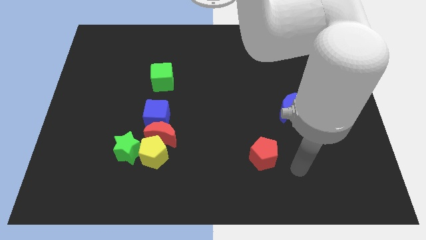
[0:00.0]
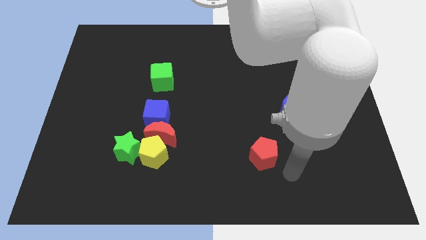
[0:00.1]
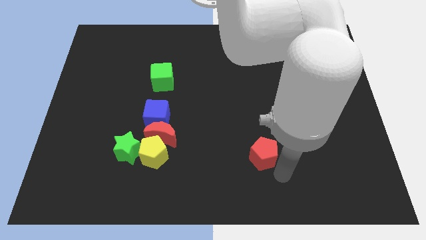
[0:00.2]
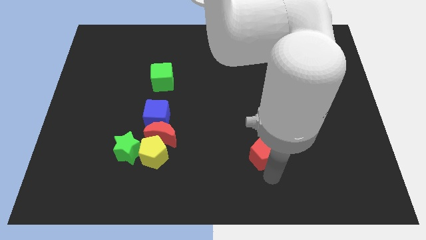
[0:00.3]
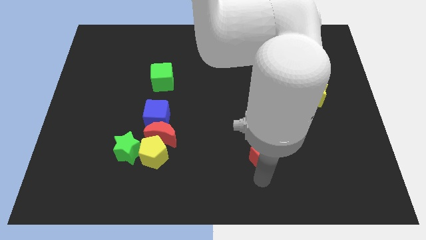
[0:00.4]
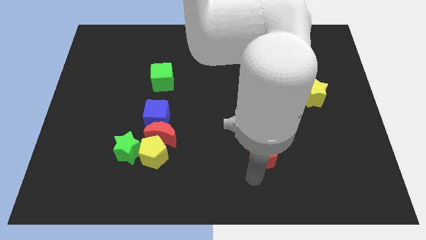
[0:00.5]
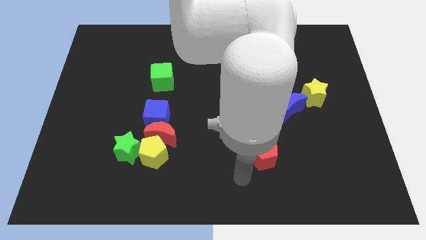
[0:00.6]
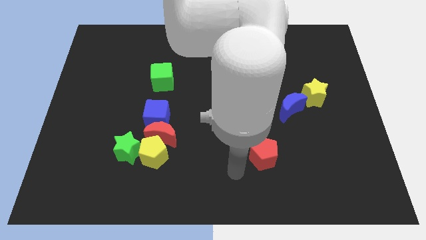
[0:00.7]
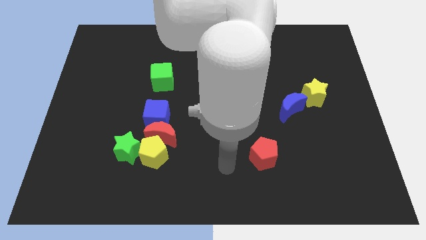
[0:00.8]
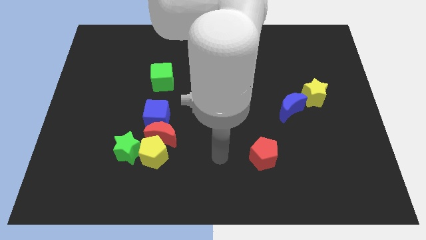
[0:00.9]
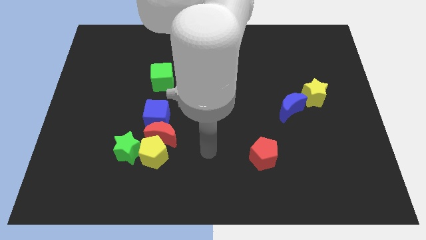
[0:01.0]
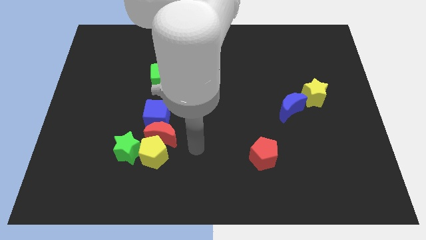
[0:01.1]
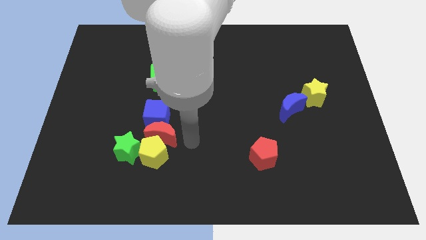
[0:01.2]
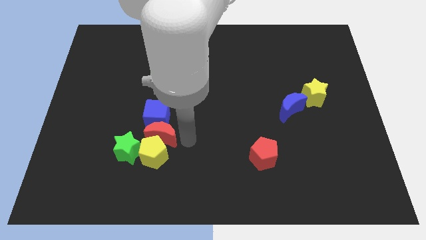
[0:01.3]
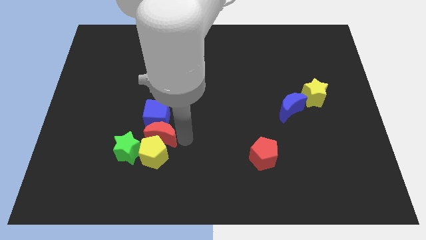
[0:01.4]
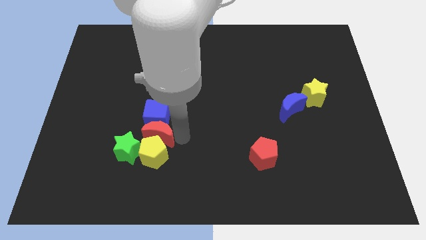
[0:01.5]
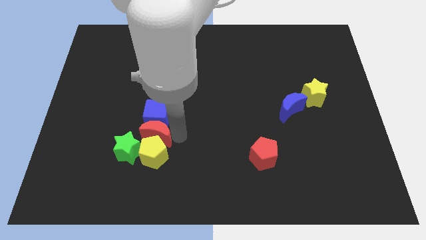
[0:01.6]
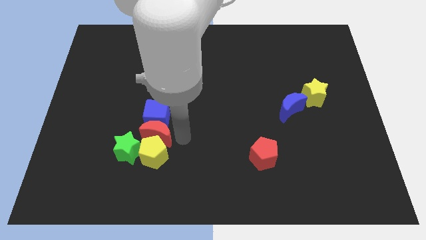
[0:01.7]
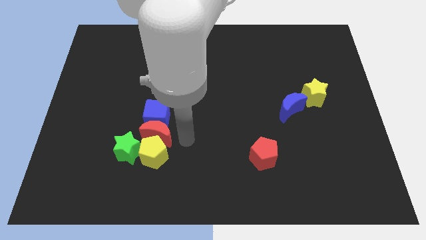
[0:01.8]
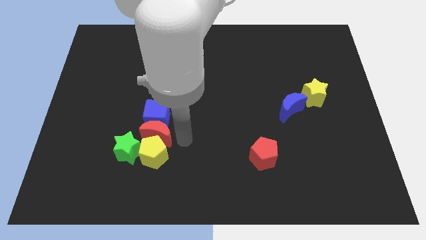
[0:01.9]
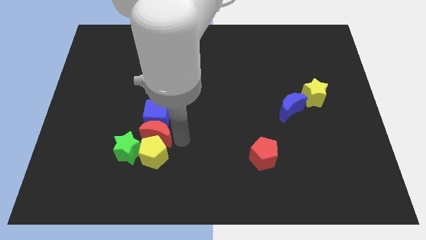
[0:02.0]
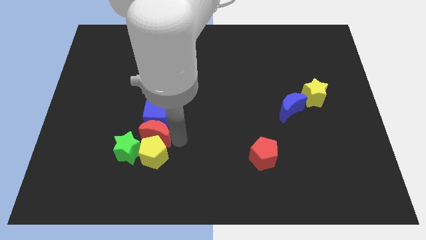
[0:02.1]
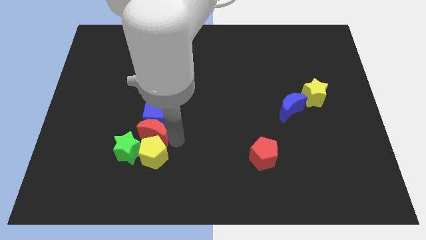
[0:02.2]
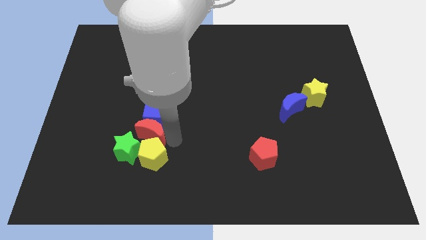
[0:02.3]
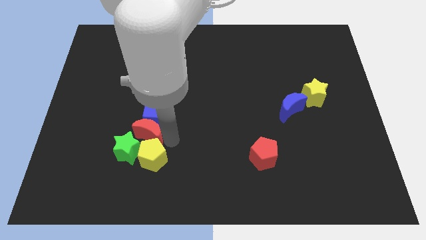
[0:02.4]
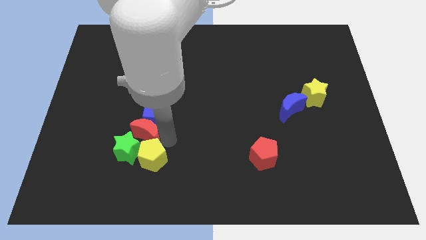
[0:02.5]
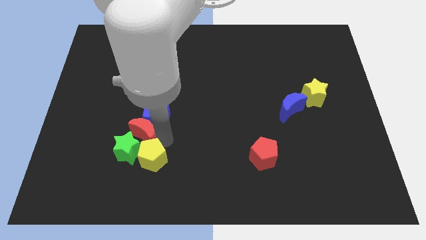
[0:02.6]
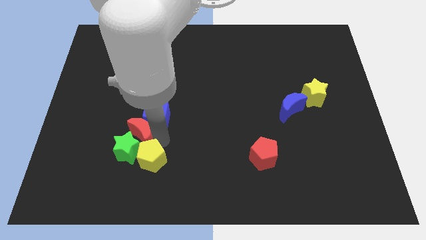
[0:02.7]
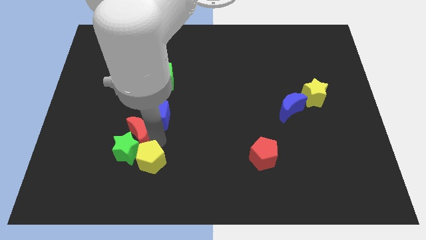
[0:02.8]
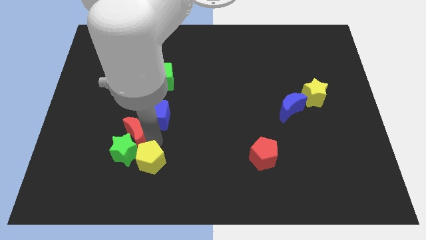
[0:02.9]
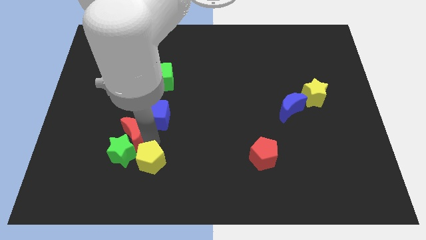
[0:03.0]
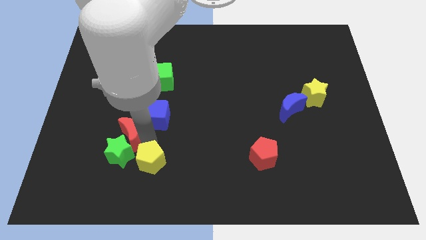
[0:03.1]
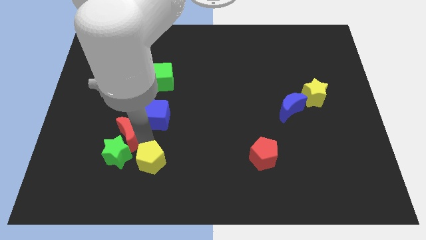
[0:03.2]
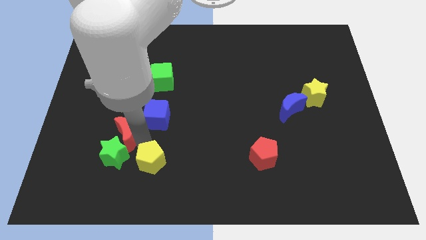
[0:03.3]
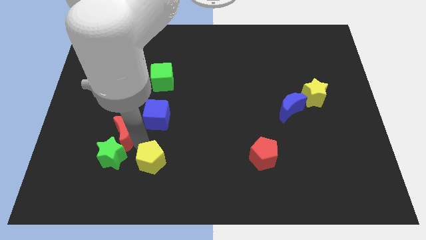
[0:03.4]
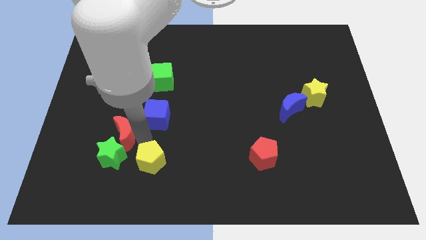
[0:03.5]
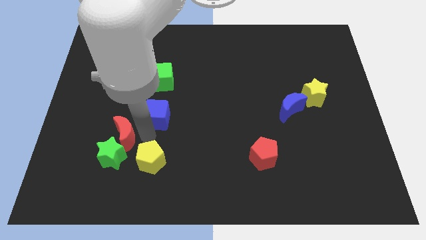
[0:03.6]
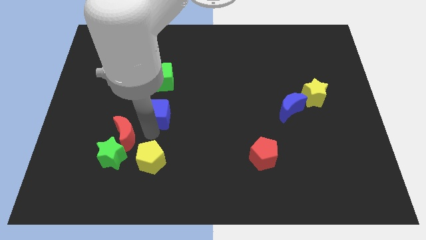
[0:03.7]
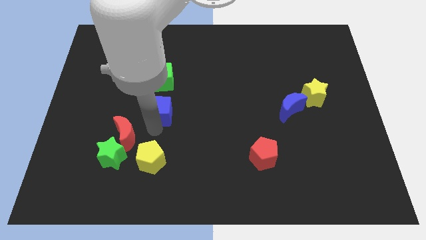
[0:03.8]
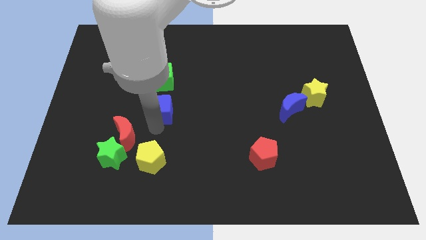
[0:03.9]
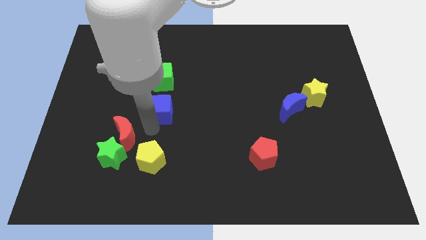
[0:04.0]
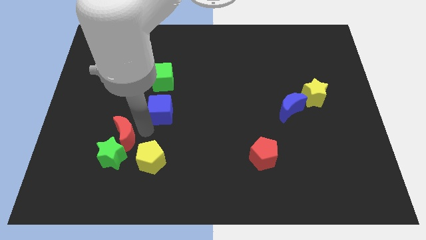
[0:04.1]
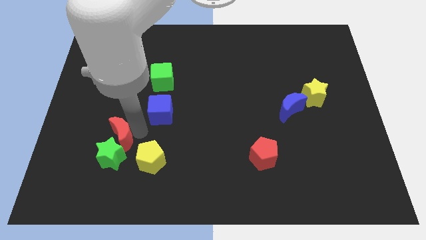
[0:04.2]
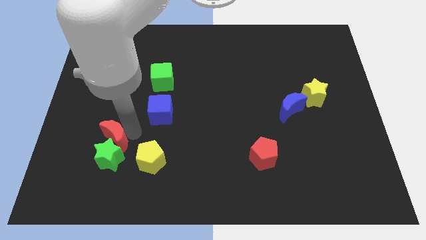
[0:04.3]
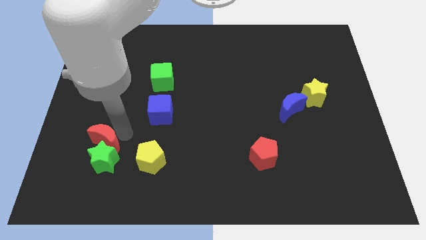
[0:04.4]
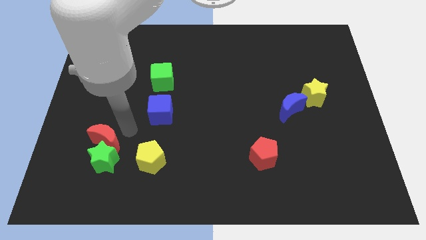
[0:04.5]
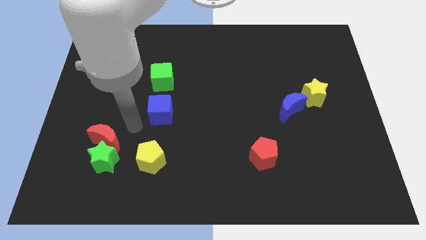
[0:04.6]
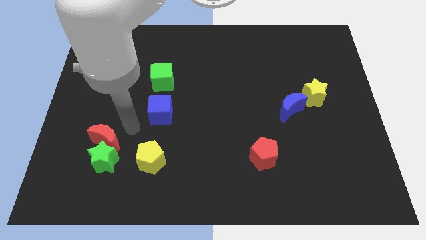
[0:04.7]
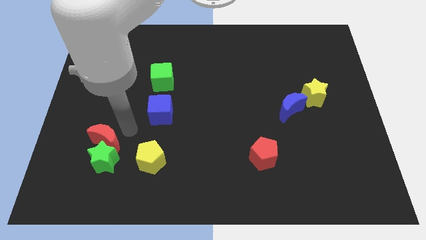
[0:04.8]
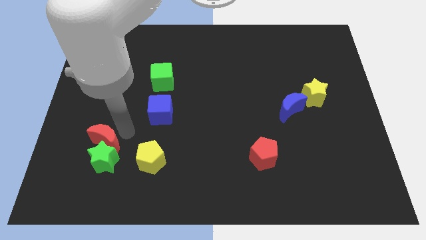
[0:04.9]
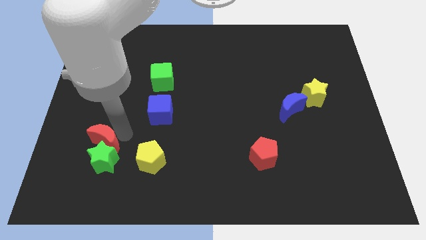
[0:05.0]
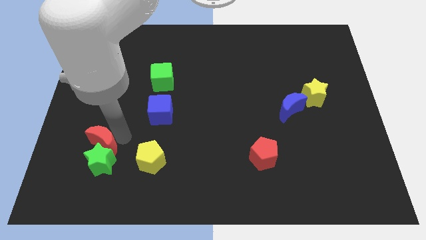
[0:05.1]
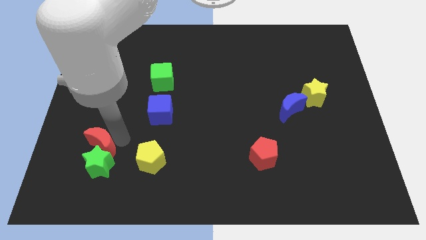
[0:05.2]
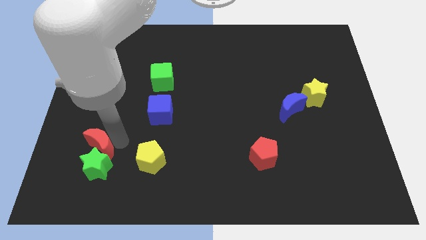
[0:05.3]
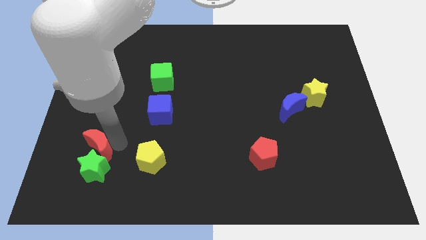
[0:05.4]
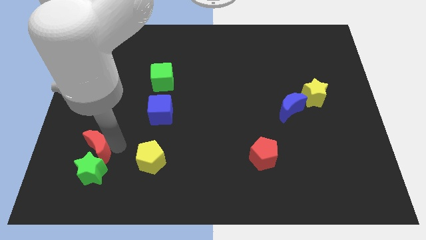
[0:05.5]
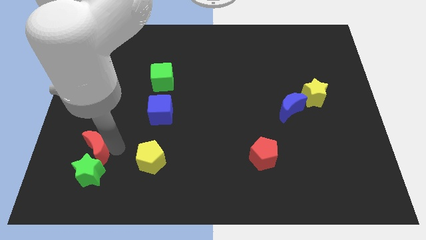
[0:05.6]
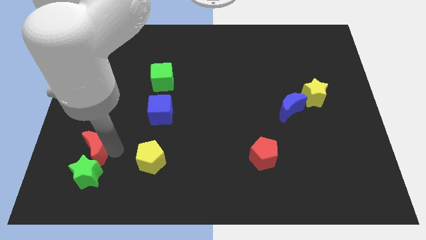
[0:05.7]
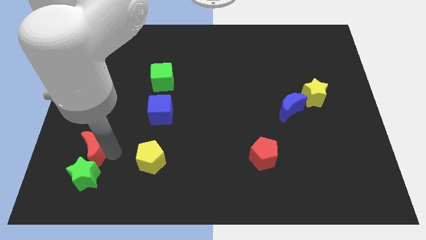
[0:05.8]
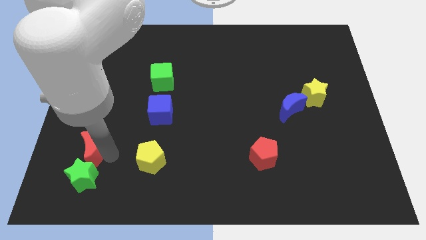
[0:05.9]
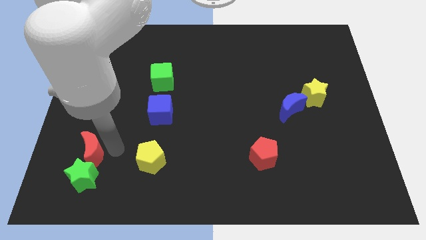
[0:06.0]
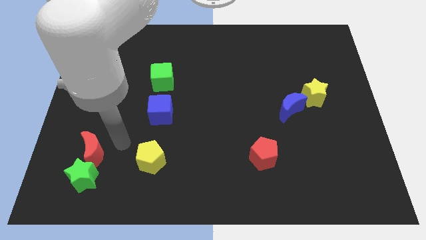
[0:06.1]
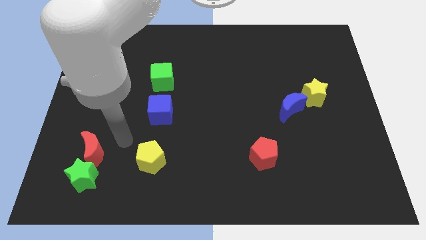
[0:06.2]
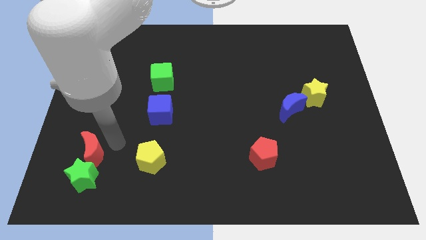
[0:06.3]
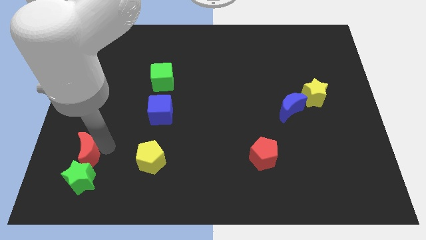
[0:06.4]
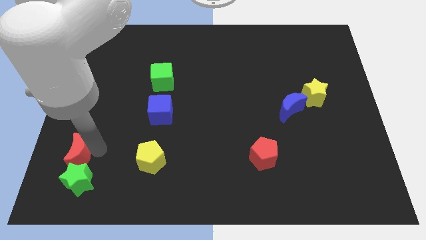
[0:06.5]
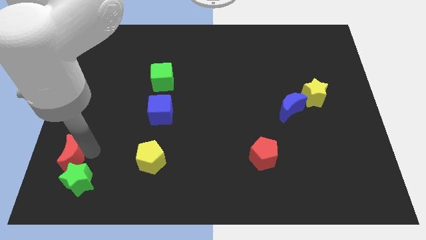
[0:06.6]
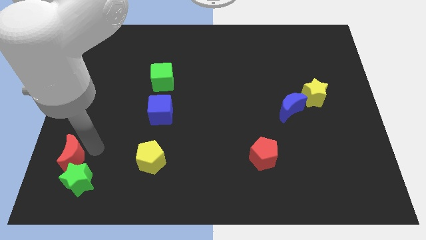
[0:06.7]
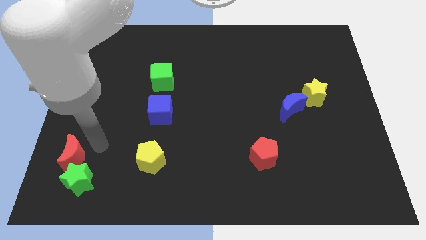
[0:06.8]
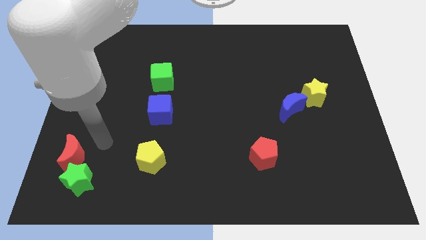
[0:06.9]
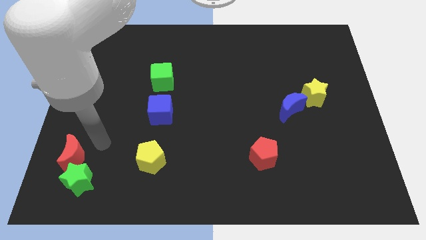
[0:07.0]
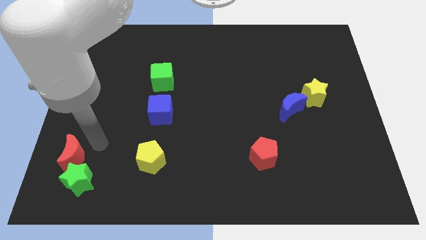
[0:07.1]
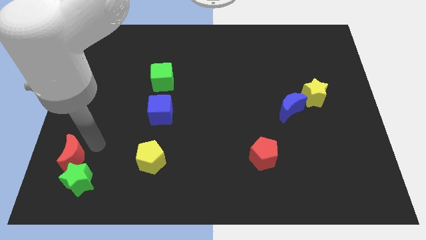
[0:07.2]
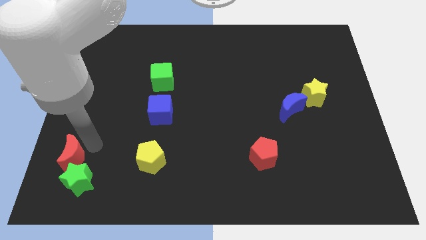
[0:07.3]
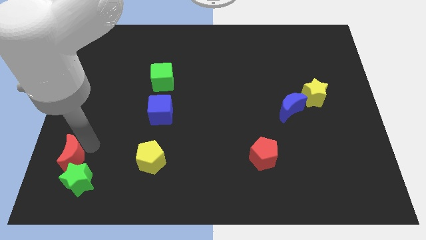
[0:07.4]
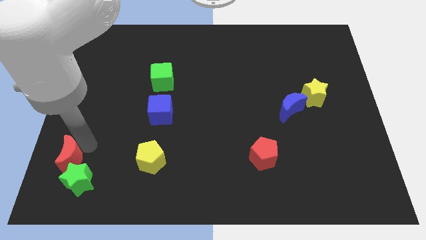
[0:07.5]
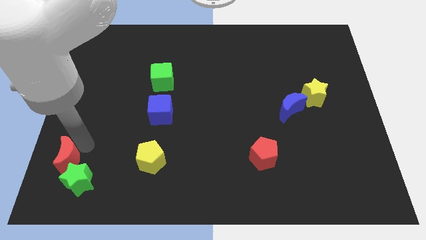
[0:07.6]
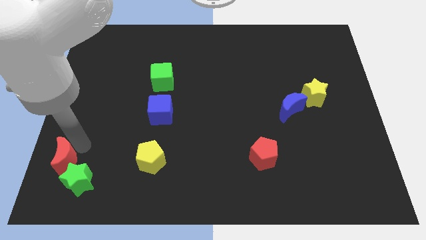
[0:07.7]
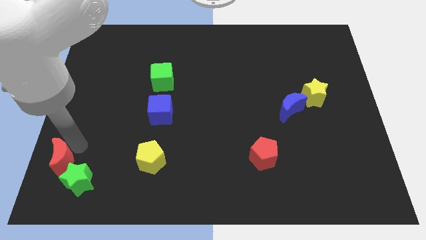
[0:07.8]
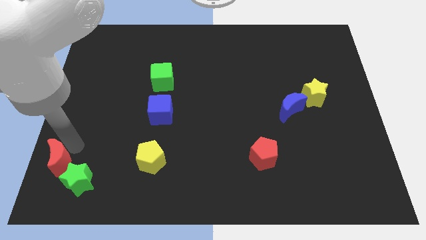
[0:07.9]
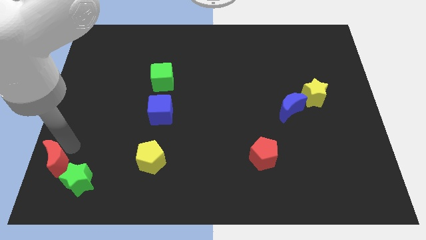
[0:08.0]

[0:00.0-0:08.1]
push the red moon to the bottom left
